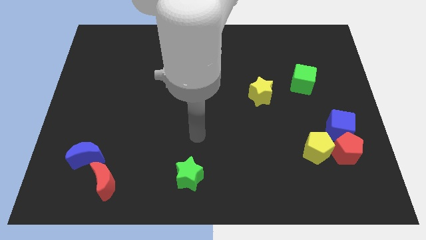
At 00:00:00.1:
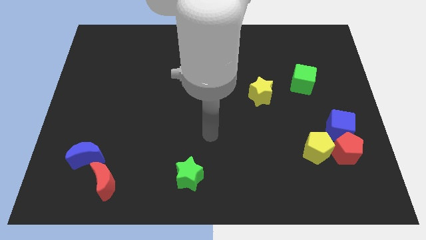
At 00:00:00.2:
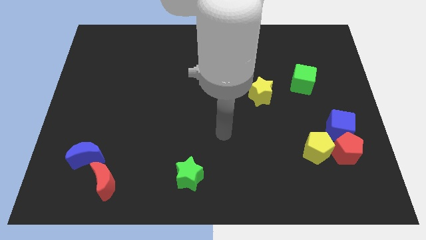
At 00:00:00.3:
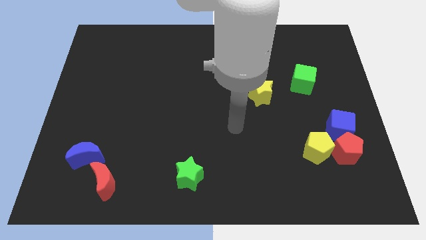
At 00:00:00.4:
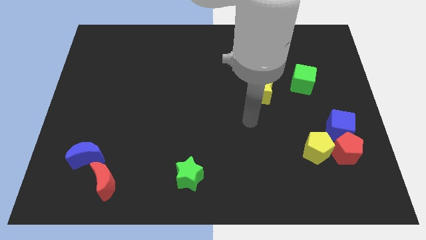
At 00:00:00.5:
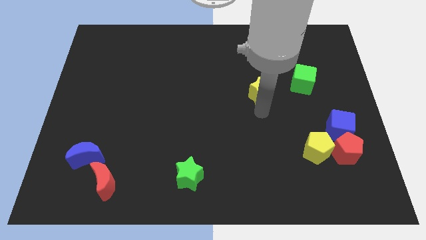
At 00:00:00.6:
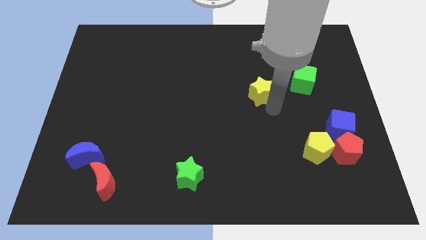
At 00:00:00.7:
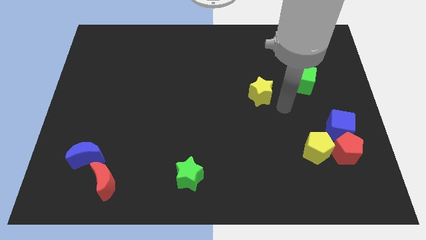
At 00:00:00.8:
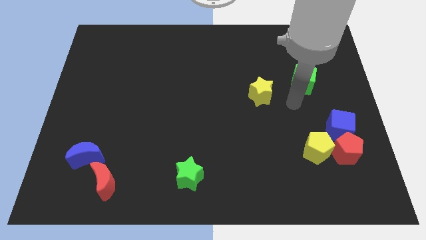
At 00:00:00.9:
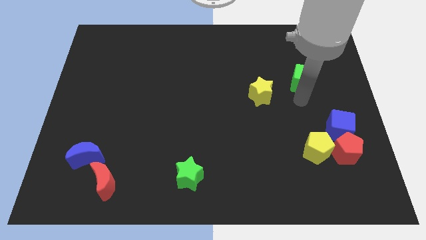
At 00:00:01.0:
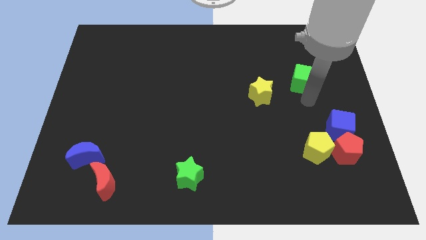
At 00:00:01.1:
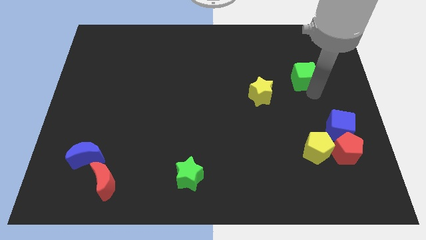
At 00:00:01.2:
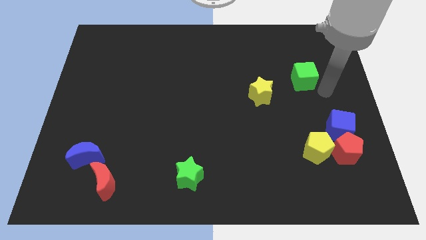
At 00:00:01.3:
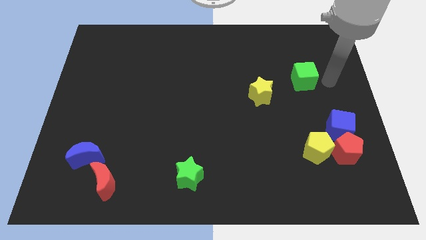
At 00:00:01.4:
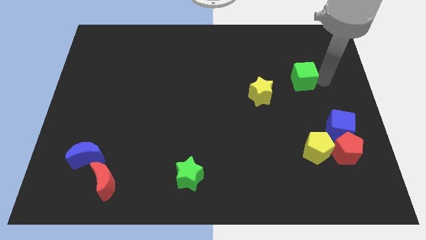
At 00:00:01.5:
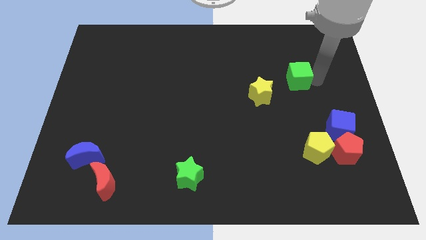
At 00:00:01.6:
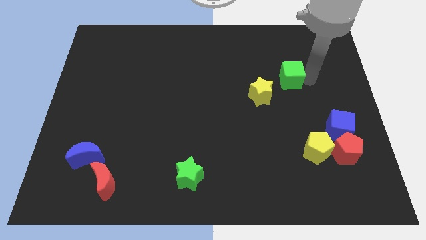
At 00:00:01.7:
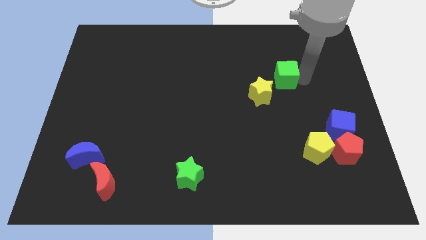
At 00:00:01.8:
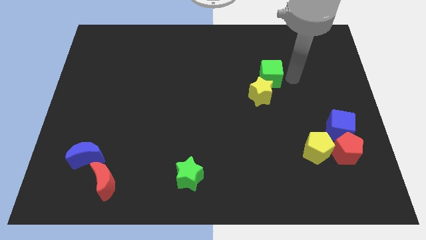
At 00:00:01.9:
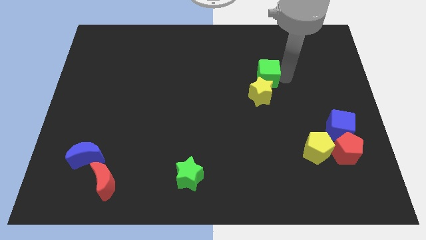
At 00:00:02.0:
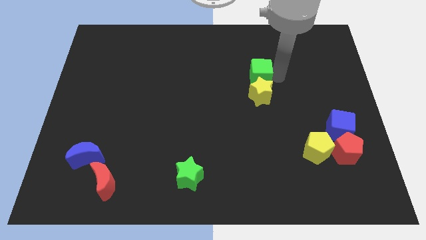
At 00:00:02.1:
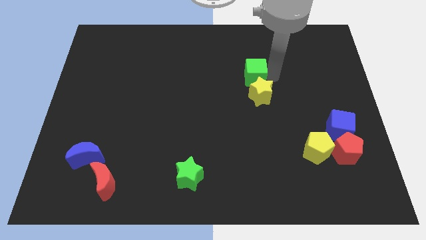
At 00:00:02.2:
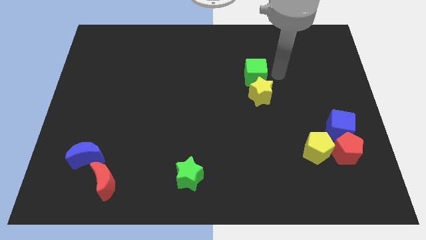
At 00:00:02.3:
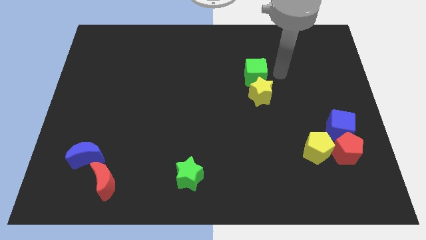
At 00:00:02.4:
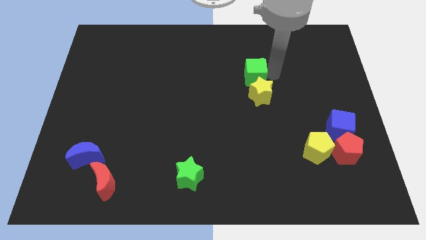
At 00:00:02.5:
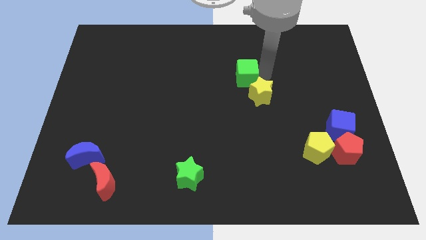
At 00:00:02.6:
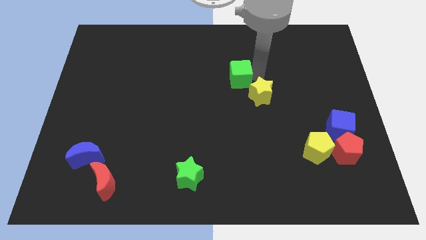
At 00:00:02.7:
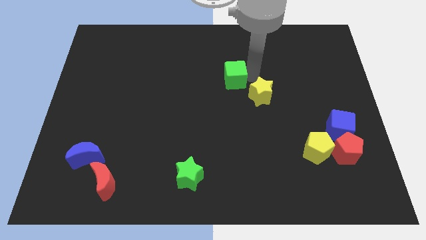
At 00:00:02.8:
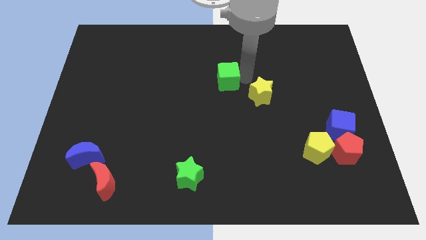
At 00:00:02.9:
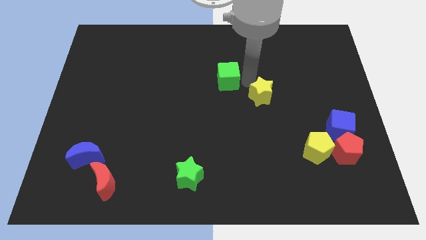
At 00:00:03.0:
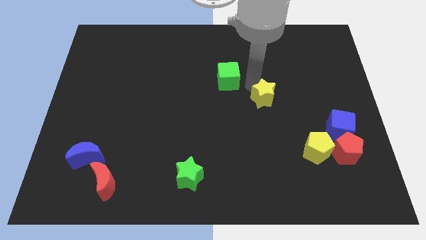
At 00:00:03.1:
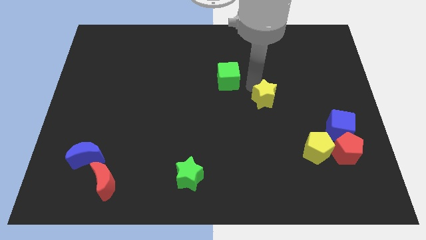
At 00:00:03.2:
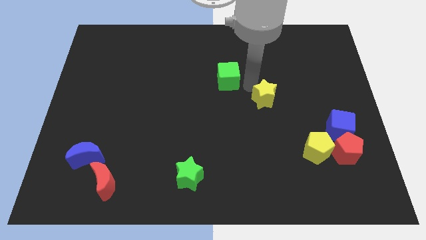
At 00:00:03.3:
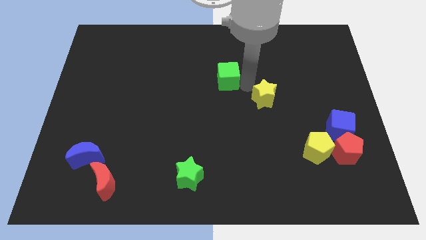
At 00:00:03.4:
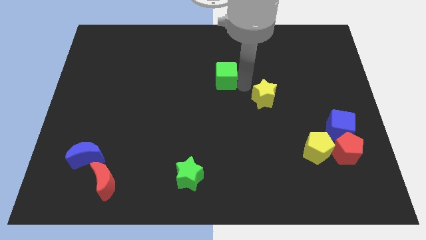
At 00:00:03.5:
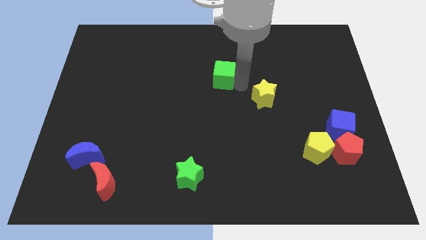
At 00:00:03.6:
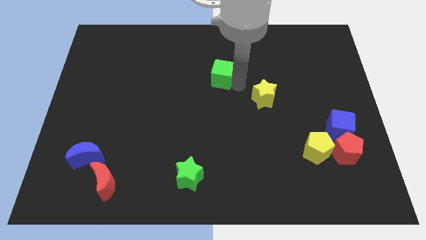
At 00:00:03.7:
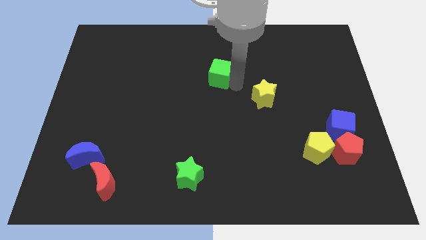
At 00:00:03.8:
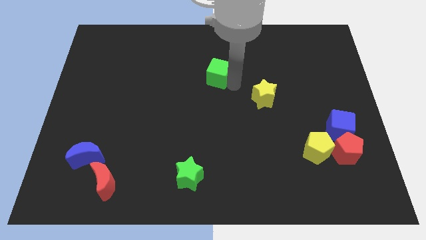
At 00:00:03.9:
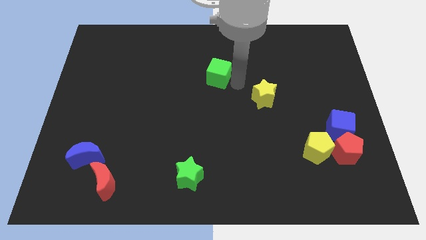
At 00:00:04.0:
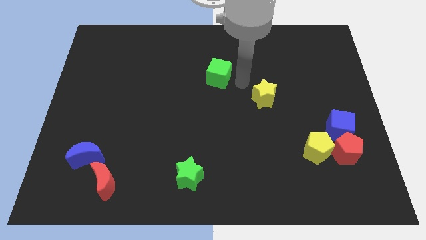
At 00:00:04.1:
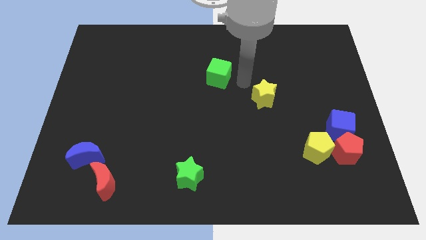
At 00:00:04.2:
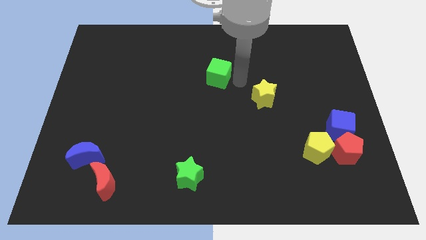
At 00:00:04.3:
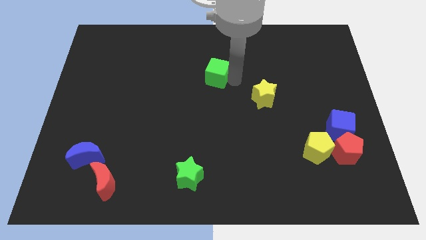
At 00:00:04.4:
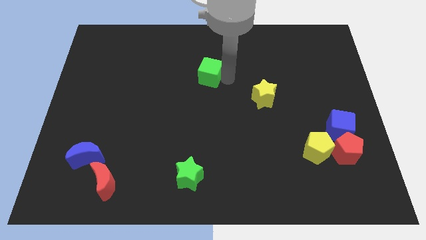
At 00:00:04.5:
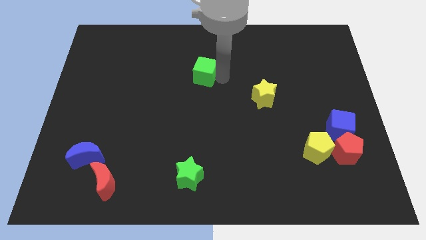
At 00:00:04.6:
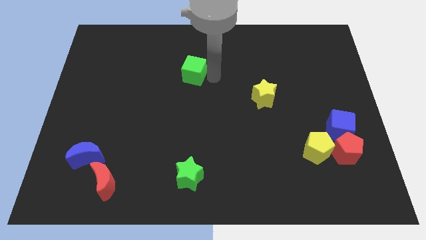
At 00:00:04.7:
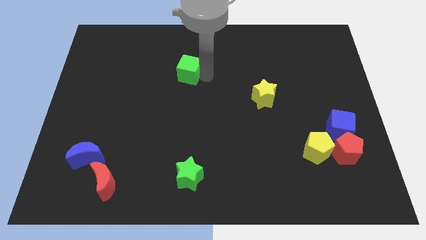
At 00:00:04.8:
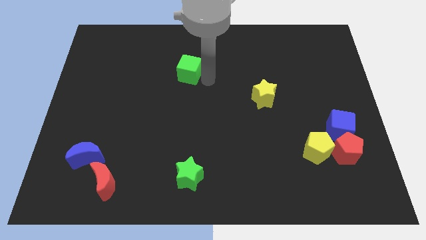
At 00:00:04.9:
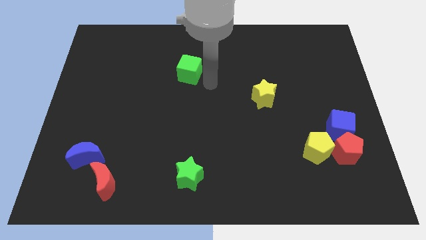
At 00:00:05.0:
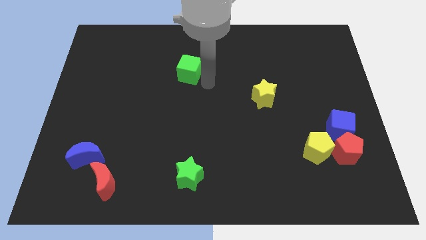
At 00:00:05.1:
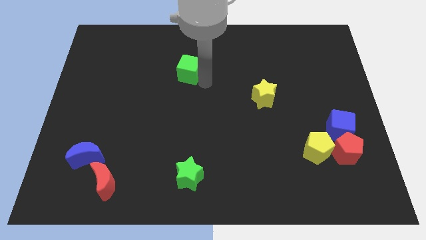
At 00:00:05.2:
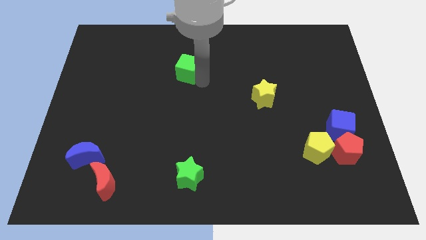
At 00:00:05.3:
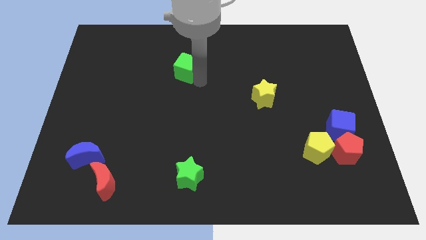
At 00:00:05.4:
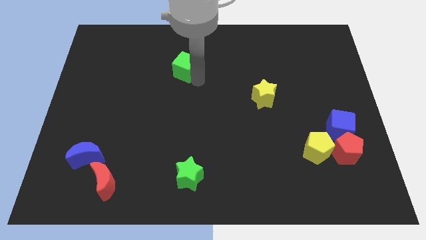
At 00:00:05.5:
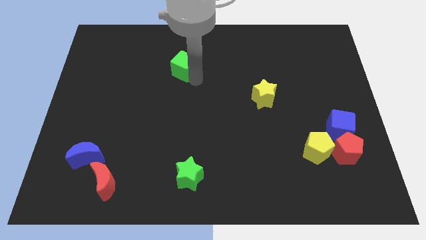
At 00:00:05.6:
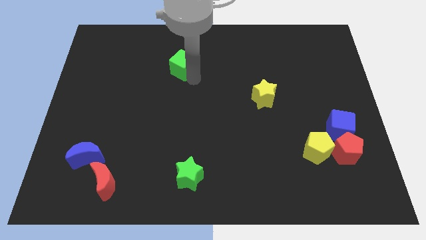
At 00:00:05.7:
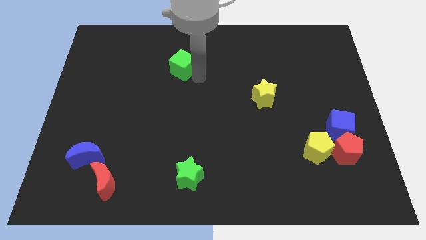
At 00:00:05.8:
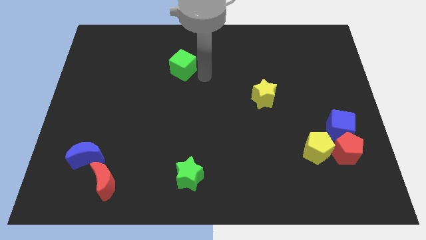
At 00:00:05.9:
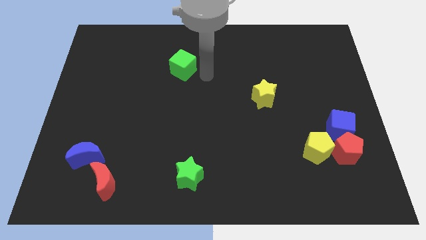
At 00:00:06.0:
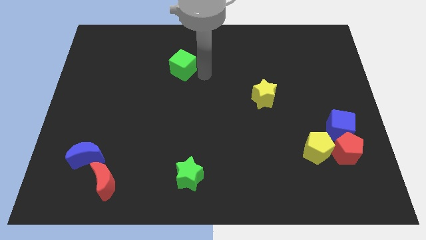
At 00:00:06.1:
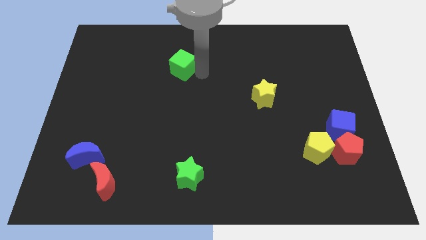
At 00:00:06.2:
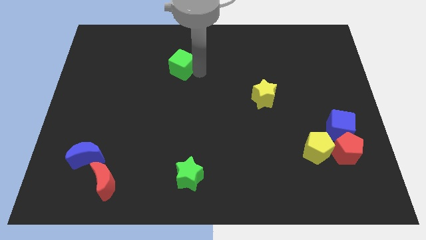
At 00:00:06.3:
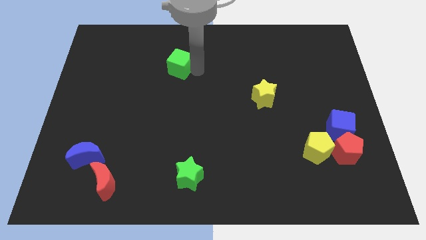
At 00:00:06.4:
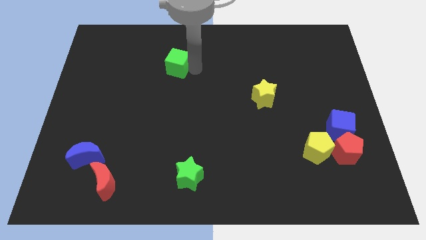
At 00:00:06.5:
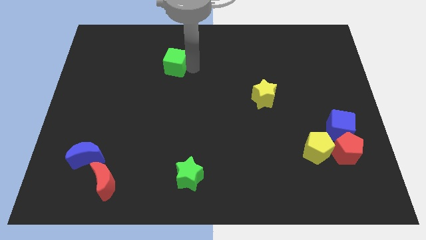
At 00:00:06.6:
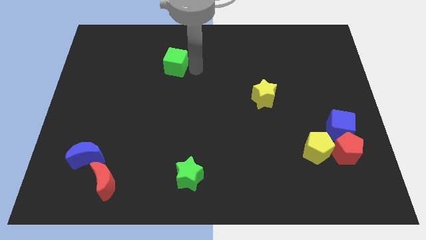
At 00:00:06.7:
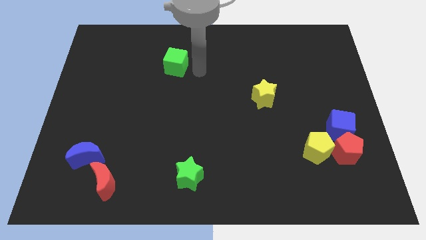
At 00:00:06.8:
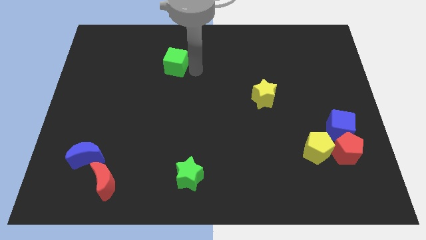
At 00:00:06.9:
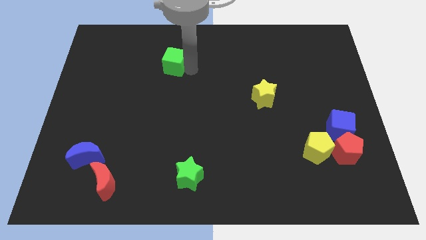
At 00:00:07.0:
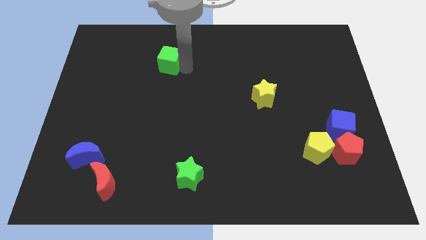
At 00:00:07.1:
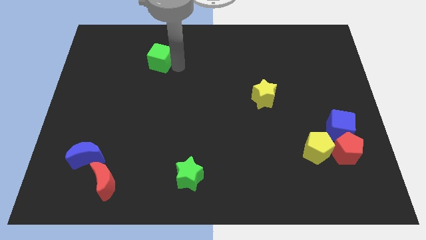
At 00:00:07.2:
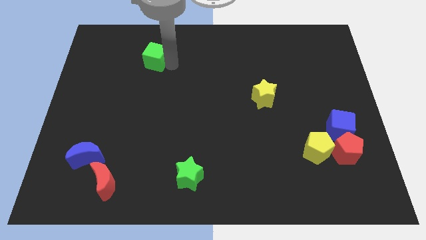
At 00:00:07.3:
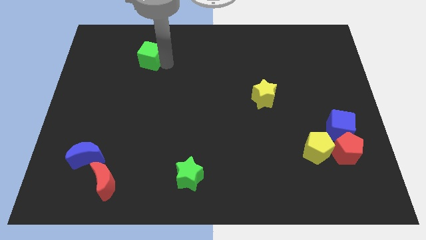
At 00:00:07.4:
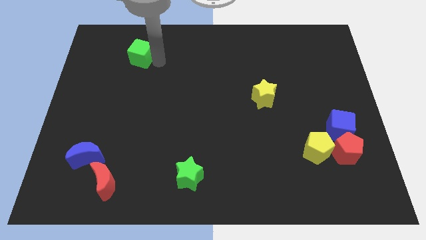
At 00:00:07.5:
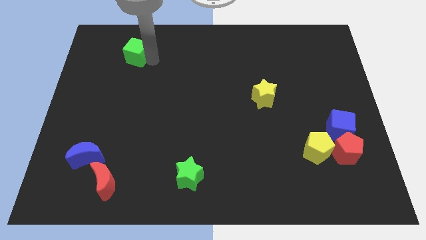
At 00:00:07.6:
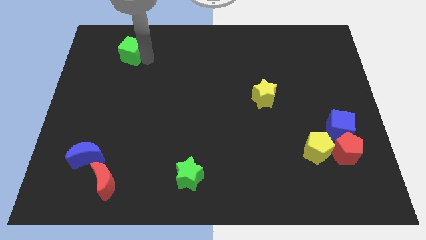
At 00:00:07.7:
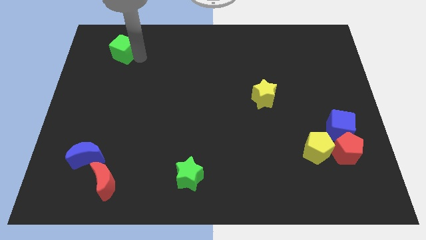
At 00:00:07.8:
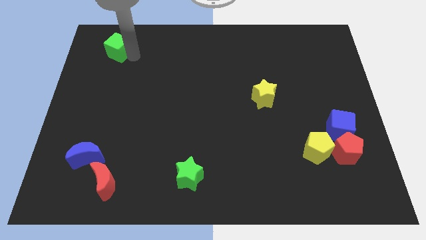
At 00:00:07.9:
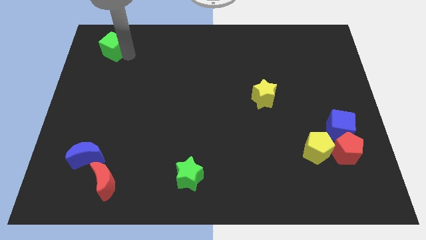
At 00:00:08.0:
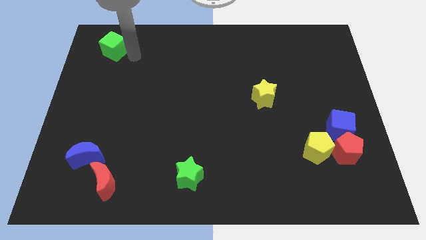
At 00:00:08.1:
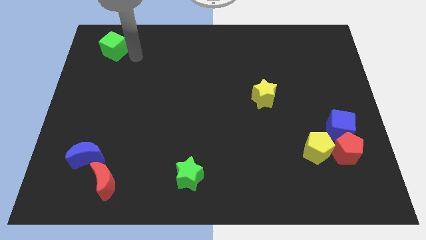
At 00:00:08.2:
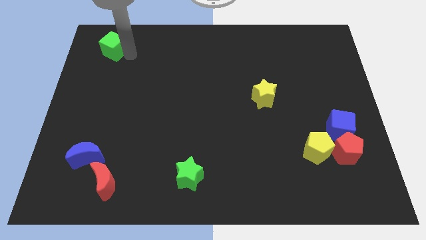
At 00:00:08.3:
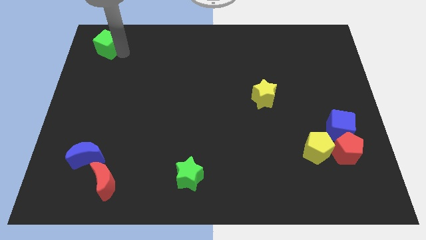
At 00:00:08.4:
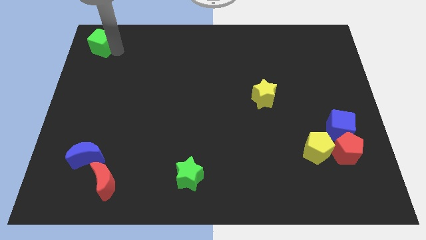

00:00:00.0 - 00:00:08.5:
slide the green cube to the top left
